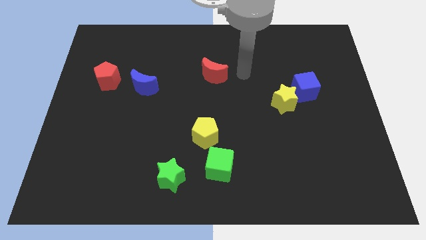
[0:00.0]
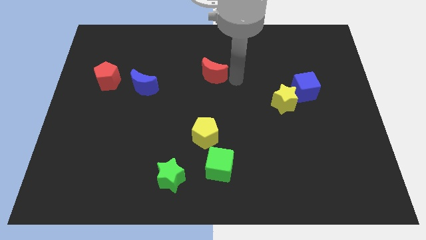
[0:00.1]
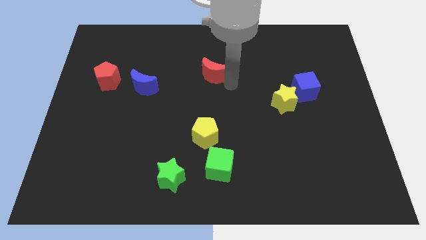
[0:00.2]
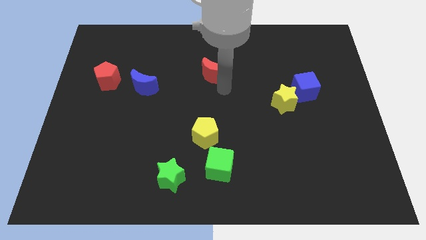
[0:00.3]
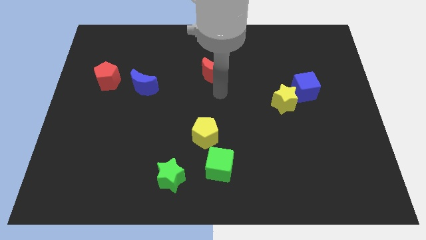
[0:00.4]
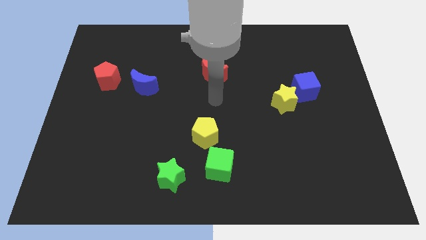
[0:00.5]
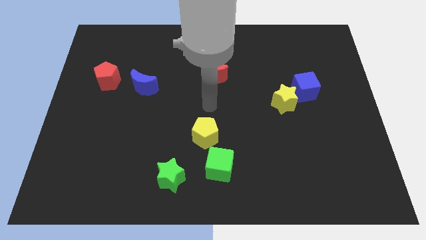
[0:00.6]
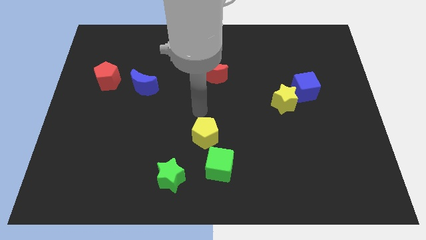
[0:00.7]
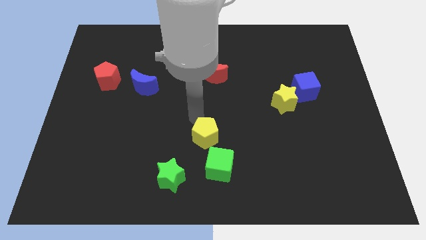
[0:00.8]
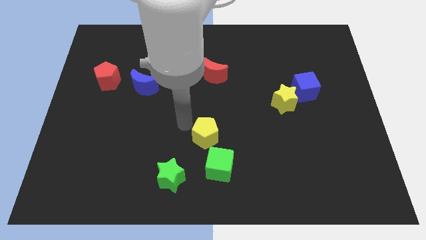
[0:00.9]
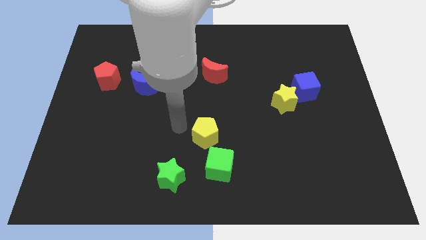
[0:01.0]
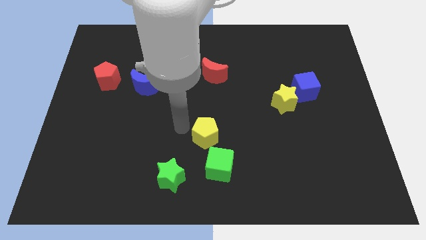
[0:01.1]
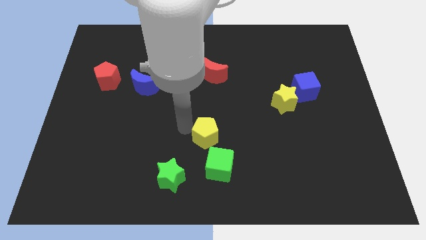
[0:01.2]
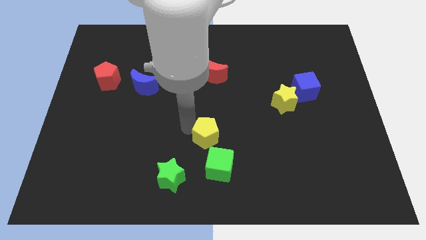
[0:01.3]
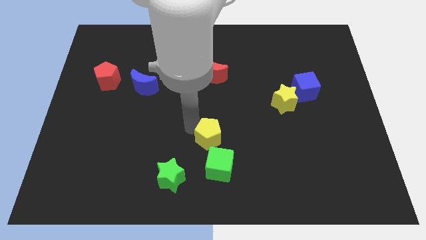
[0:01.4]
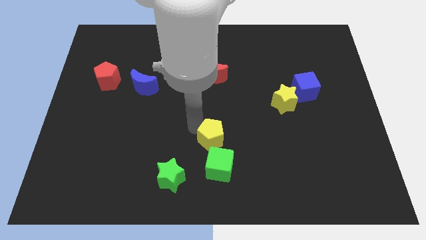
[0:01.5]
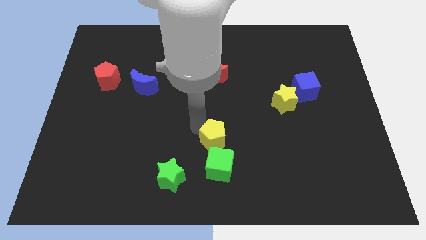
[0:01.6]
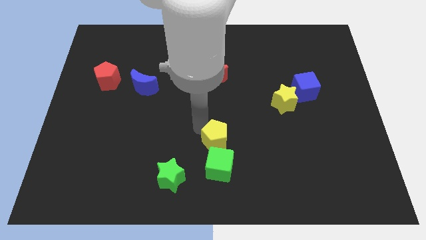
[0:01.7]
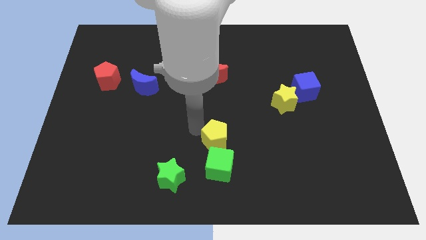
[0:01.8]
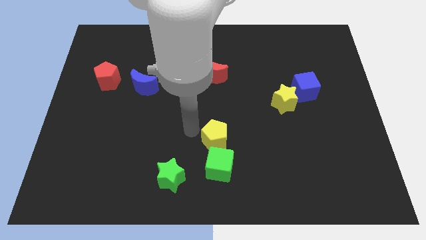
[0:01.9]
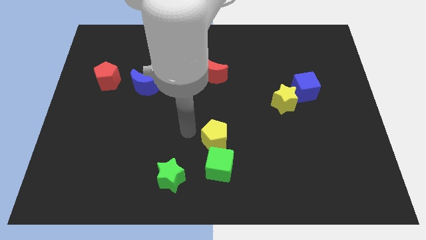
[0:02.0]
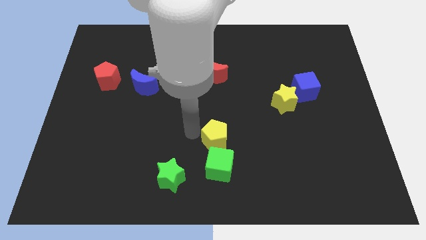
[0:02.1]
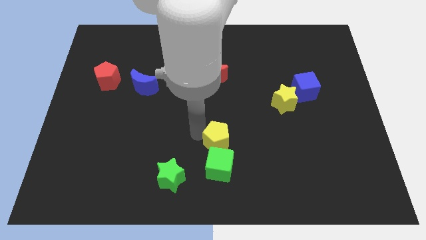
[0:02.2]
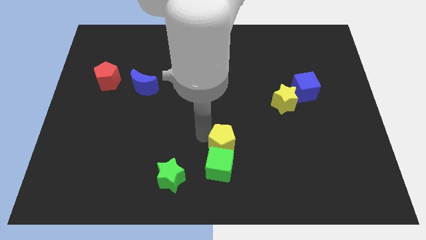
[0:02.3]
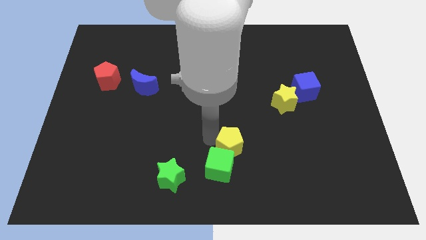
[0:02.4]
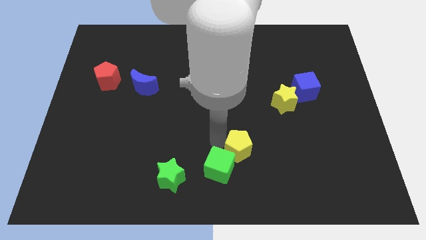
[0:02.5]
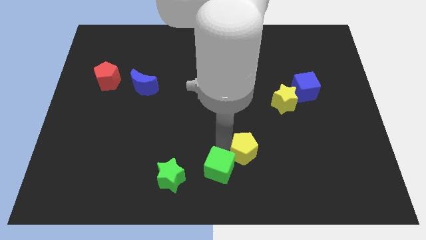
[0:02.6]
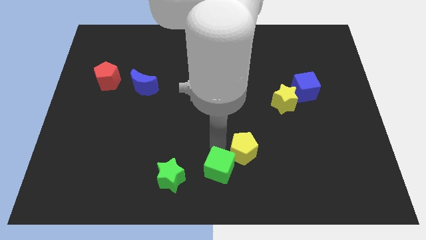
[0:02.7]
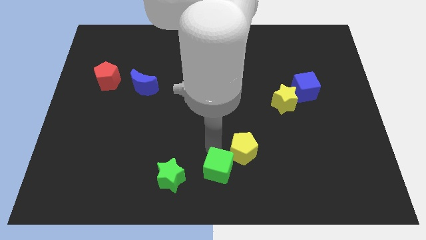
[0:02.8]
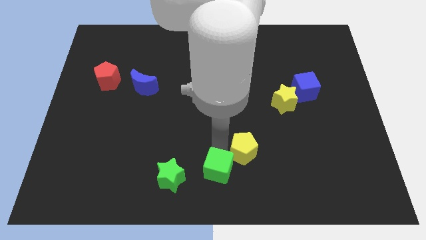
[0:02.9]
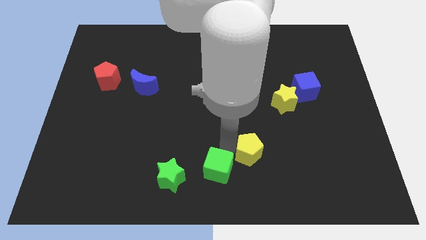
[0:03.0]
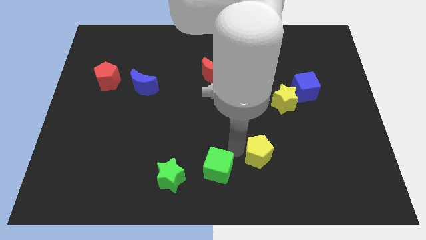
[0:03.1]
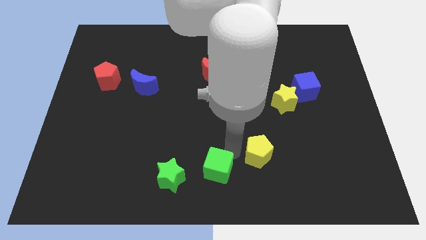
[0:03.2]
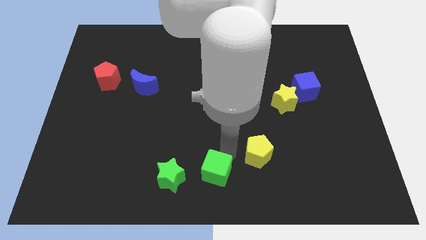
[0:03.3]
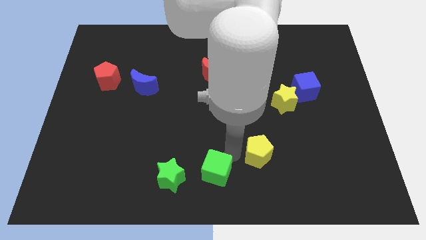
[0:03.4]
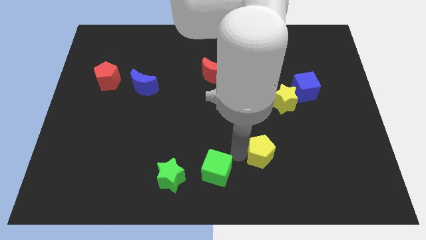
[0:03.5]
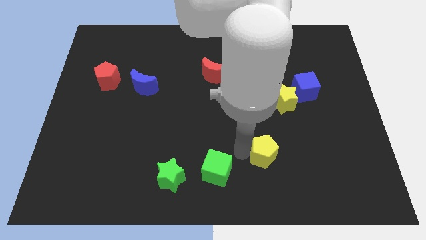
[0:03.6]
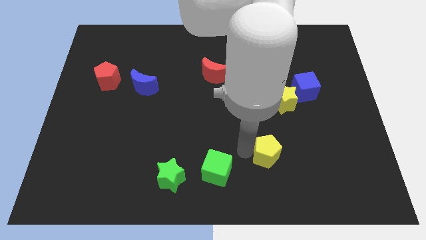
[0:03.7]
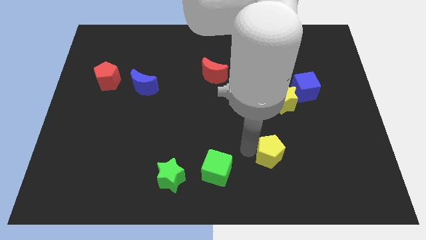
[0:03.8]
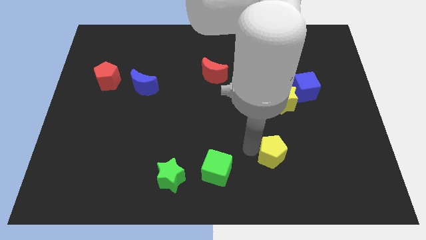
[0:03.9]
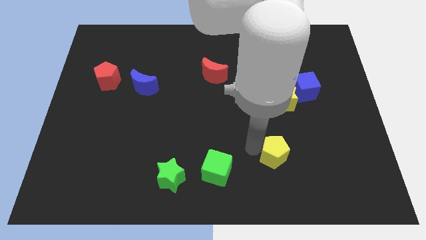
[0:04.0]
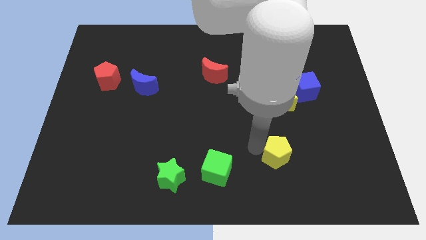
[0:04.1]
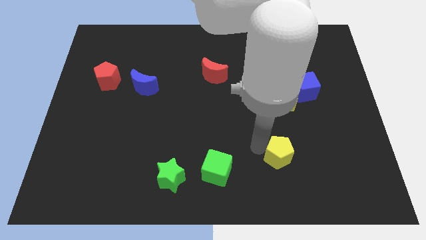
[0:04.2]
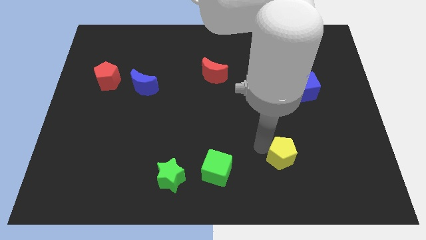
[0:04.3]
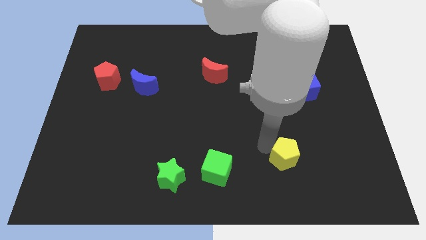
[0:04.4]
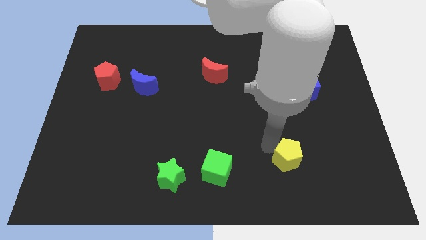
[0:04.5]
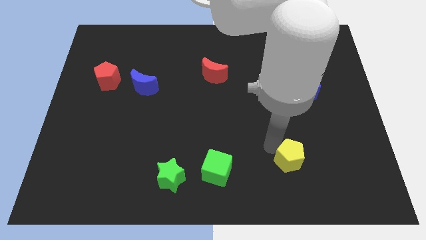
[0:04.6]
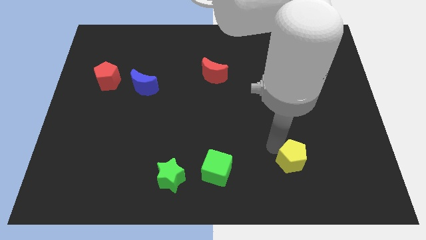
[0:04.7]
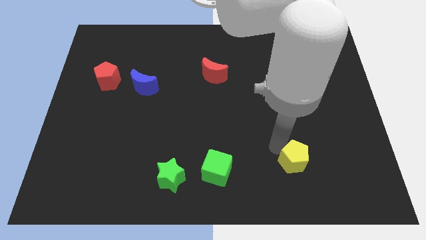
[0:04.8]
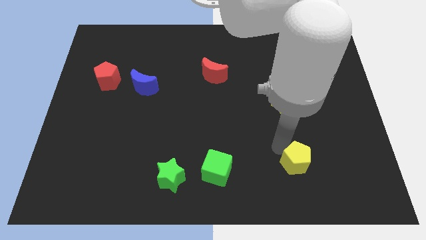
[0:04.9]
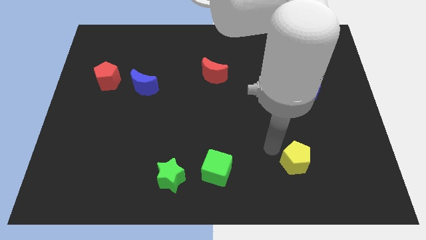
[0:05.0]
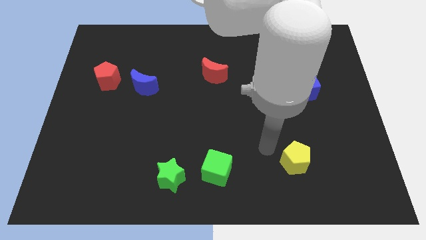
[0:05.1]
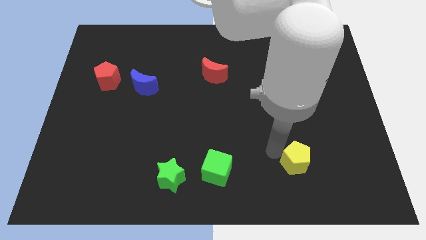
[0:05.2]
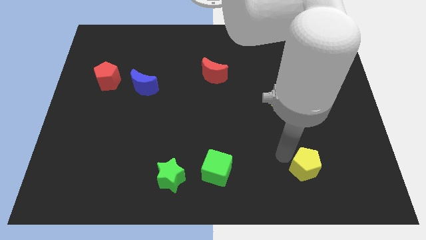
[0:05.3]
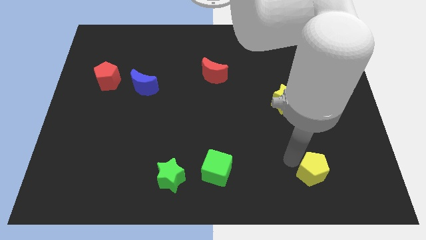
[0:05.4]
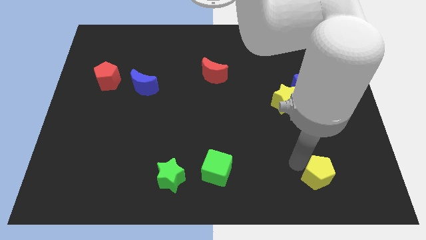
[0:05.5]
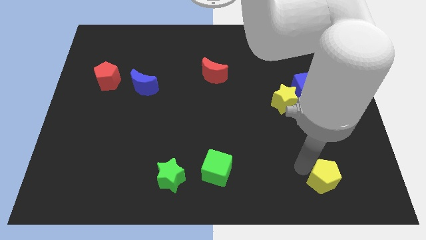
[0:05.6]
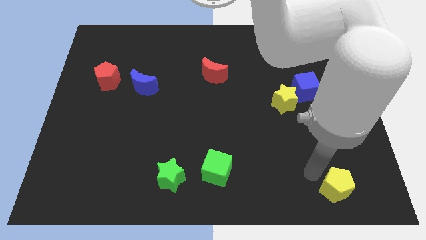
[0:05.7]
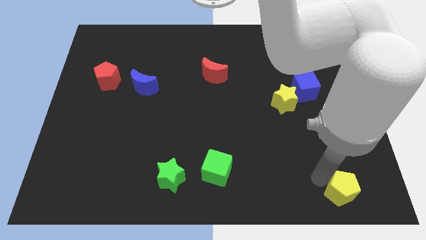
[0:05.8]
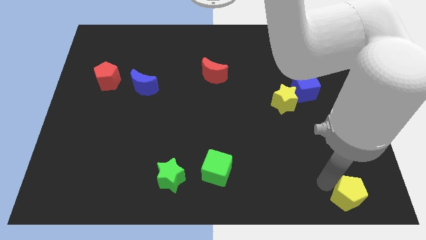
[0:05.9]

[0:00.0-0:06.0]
put the yellow pentagon to the lower right corner
